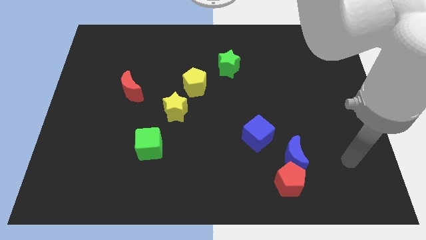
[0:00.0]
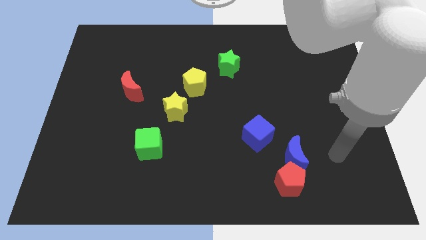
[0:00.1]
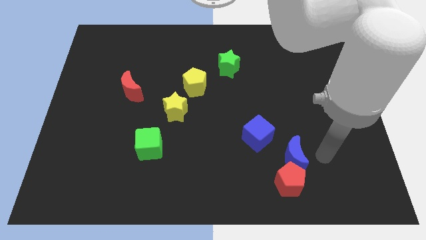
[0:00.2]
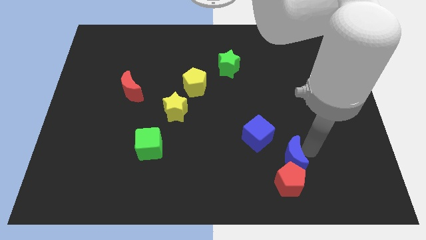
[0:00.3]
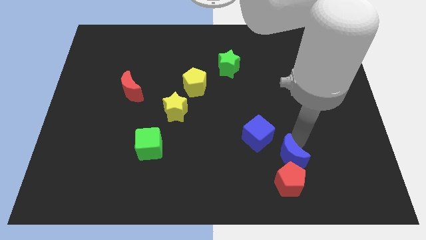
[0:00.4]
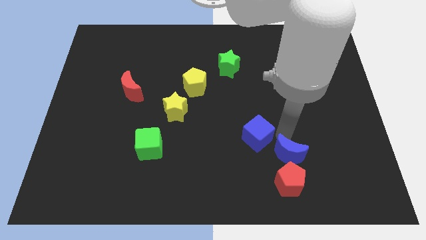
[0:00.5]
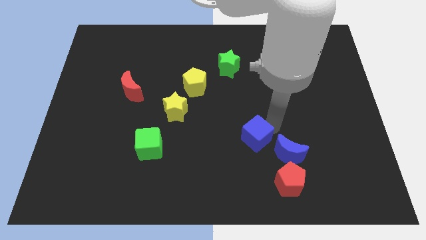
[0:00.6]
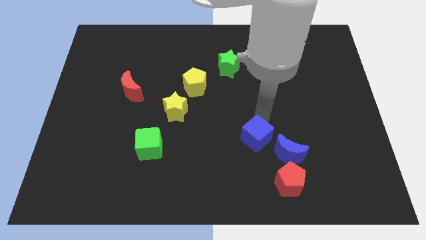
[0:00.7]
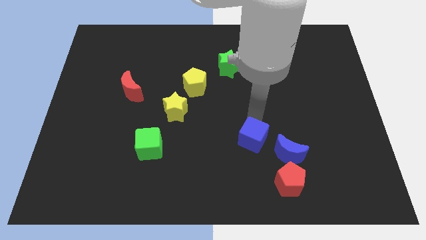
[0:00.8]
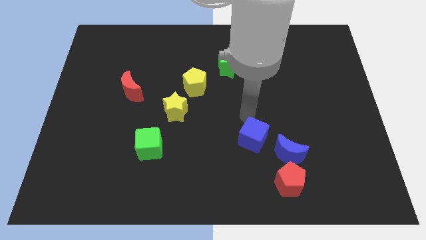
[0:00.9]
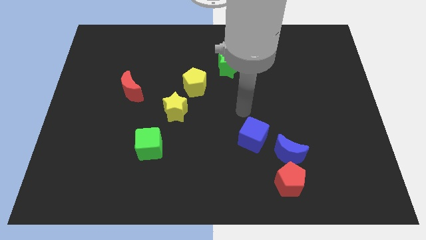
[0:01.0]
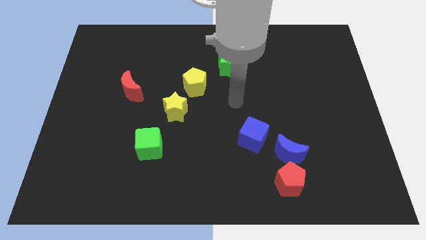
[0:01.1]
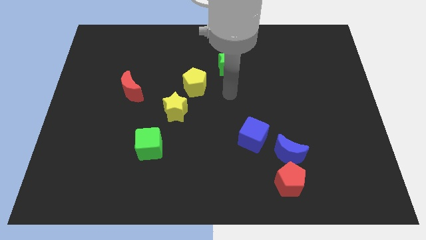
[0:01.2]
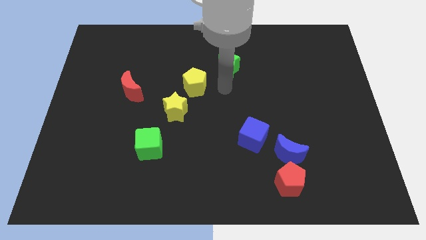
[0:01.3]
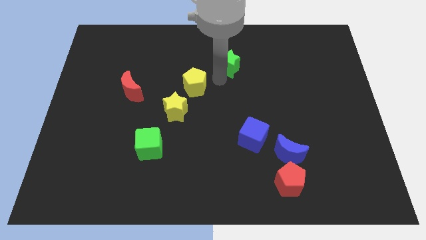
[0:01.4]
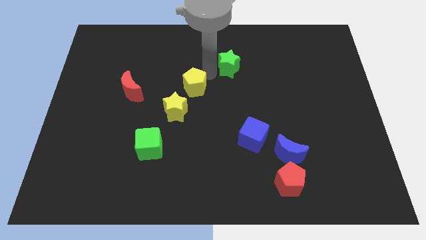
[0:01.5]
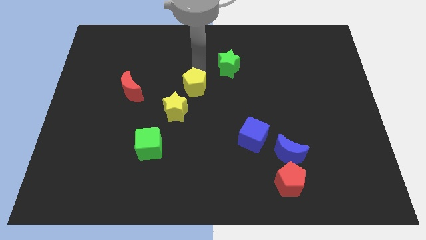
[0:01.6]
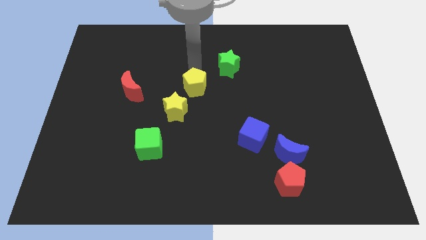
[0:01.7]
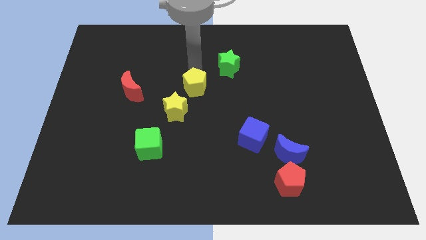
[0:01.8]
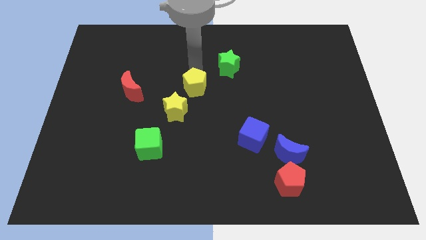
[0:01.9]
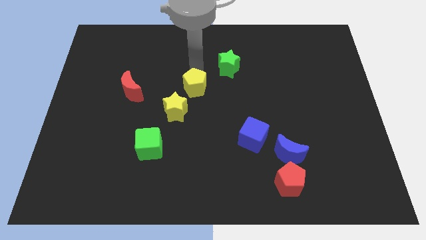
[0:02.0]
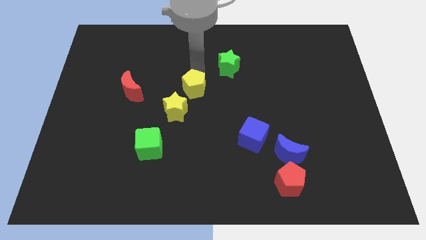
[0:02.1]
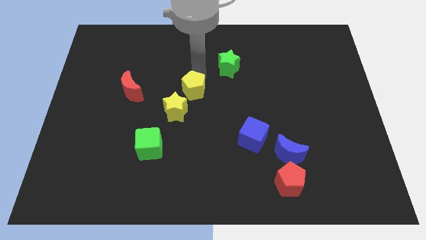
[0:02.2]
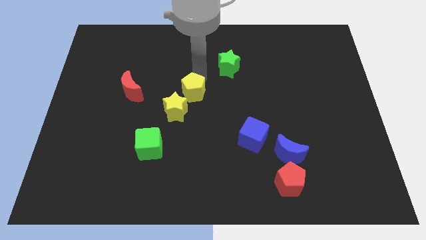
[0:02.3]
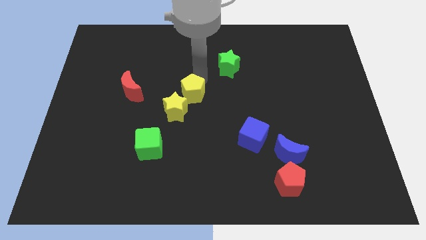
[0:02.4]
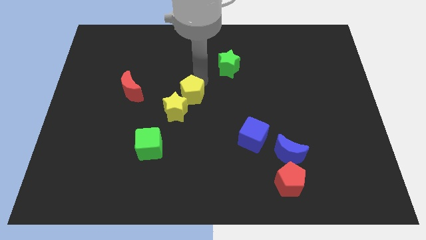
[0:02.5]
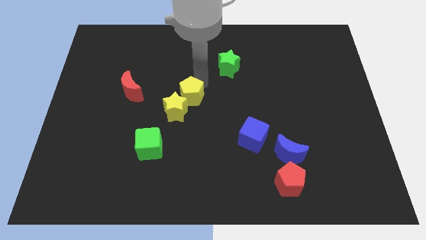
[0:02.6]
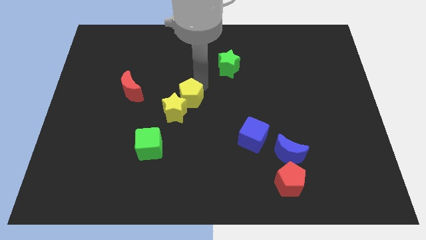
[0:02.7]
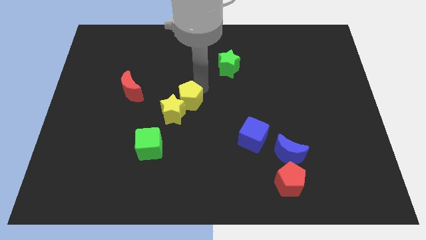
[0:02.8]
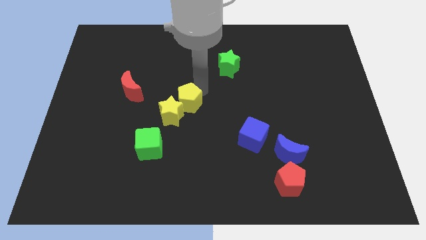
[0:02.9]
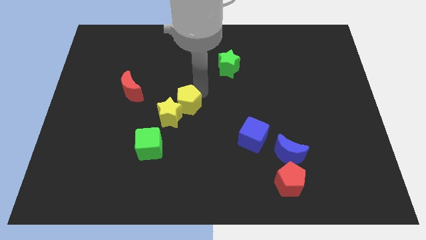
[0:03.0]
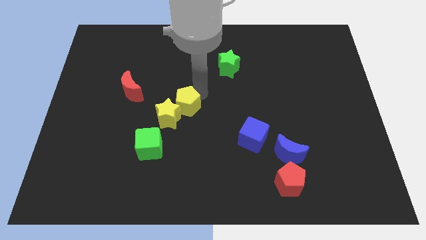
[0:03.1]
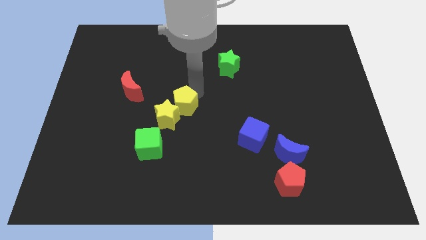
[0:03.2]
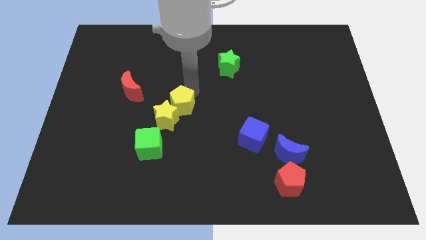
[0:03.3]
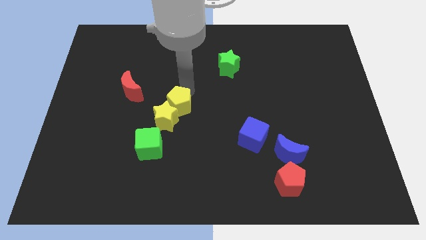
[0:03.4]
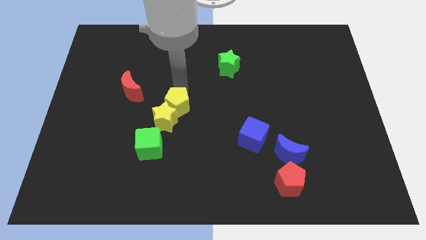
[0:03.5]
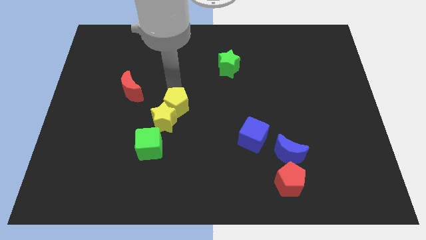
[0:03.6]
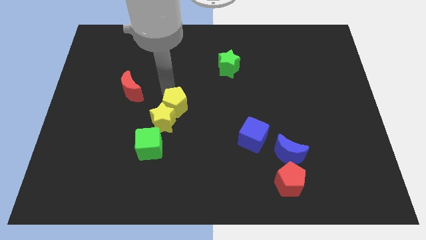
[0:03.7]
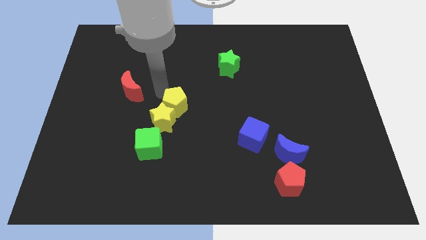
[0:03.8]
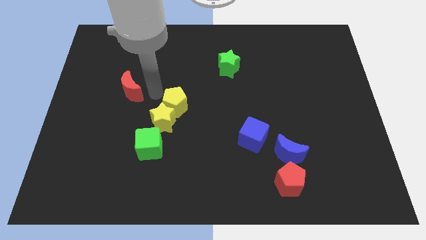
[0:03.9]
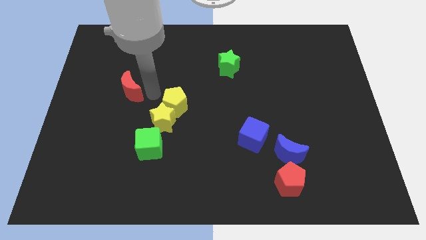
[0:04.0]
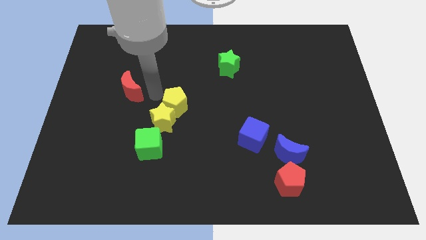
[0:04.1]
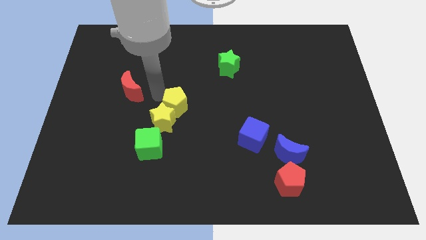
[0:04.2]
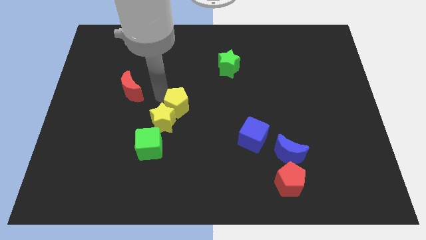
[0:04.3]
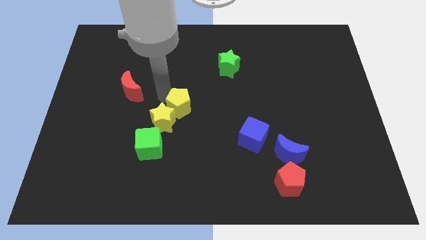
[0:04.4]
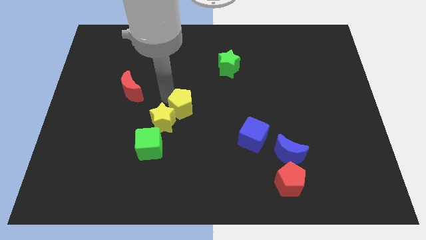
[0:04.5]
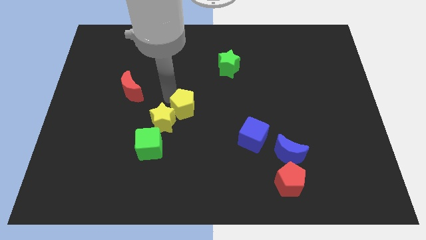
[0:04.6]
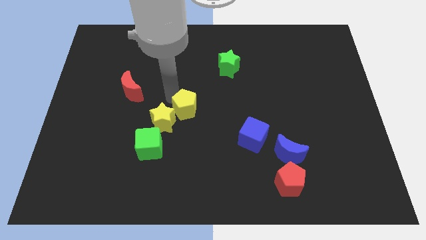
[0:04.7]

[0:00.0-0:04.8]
push the yellow pentagon a little downwards

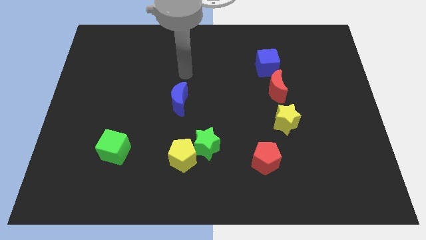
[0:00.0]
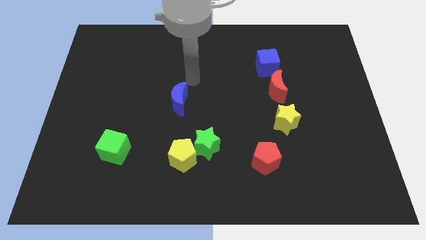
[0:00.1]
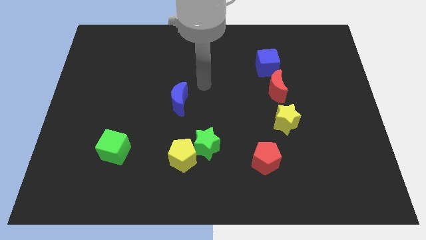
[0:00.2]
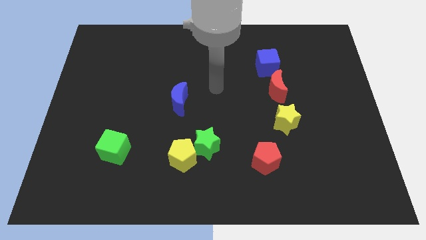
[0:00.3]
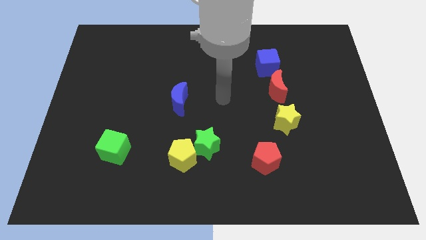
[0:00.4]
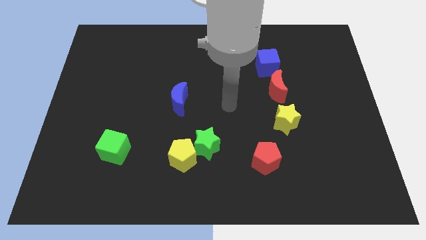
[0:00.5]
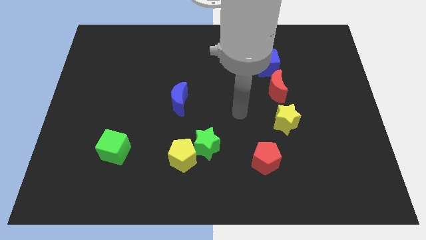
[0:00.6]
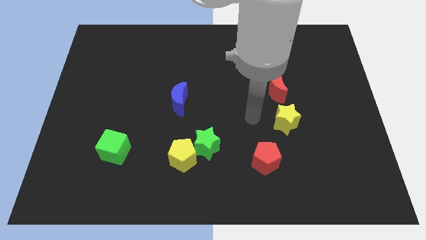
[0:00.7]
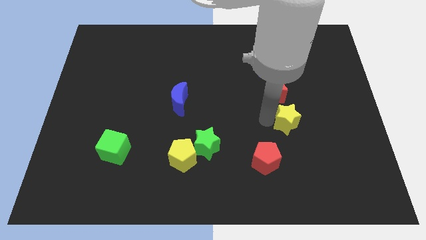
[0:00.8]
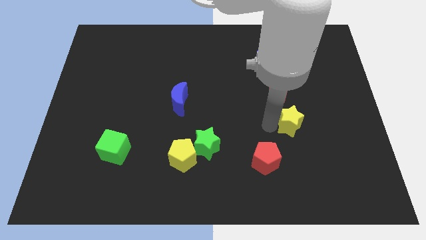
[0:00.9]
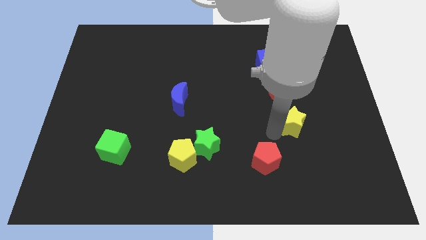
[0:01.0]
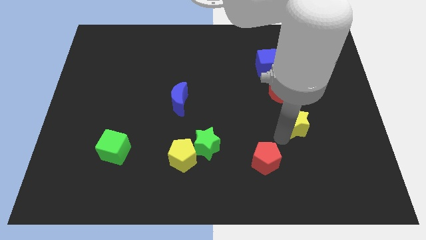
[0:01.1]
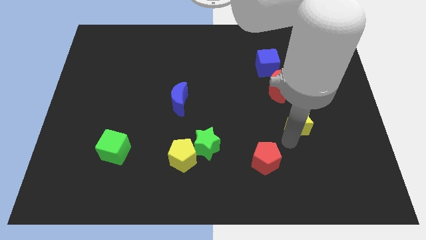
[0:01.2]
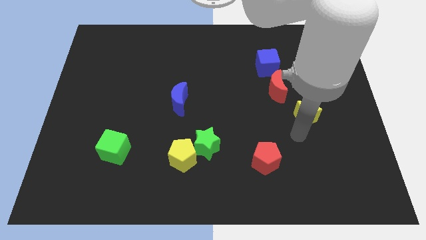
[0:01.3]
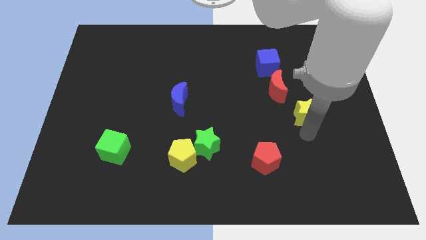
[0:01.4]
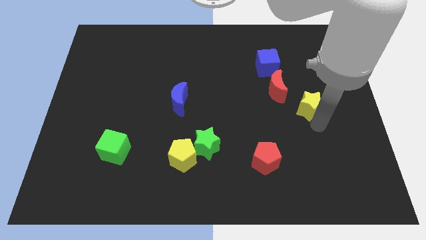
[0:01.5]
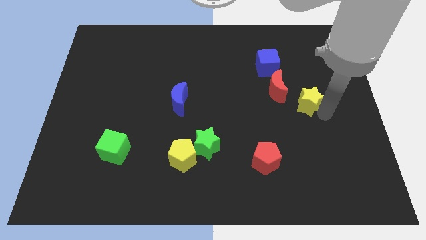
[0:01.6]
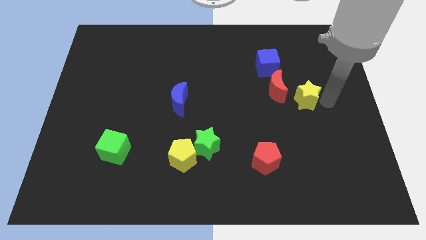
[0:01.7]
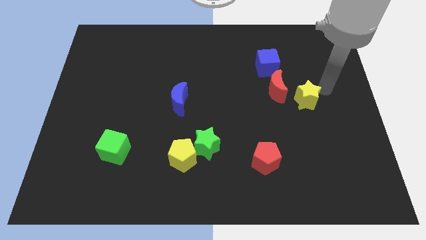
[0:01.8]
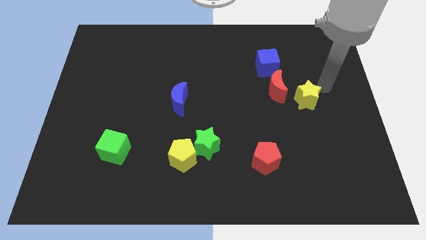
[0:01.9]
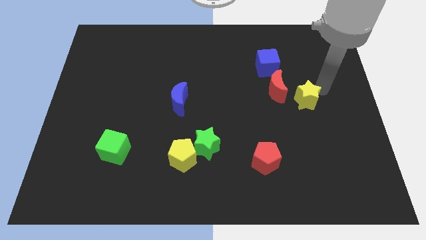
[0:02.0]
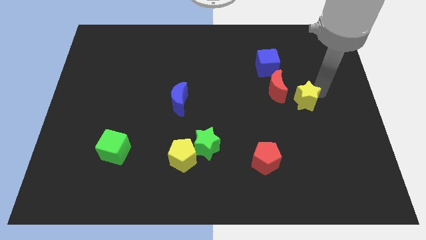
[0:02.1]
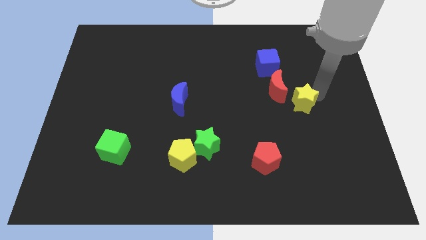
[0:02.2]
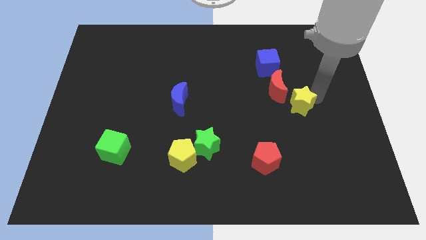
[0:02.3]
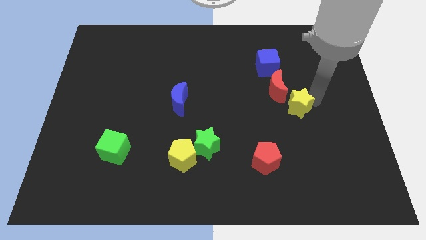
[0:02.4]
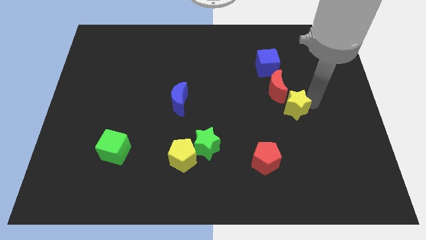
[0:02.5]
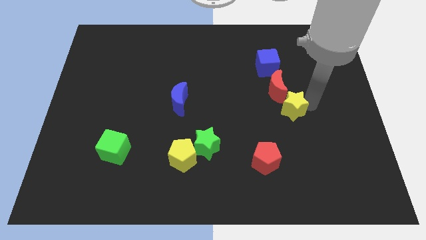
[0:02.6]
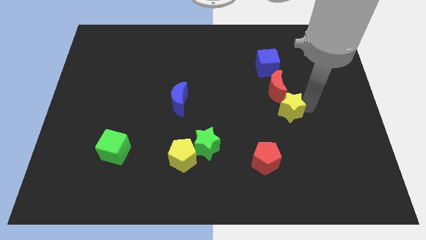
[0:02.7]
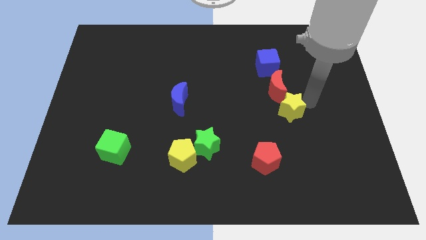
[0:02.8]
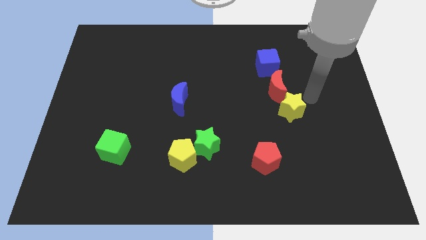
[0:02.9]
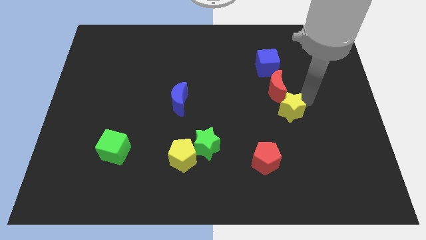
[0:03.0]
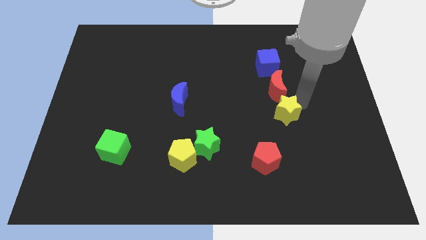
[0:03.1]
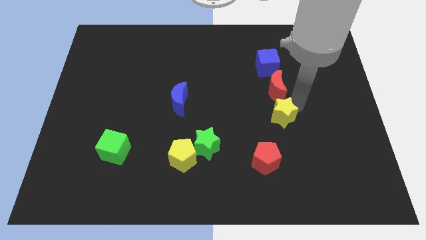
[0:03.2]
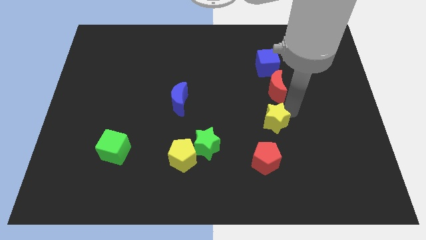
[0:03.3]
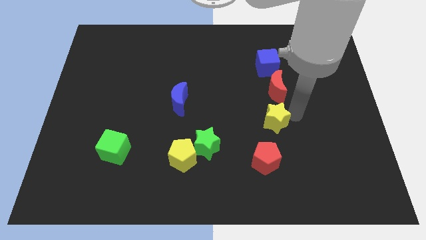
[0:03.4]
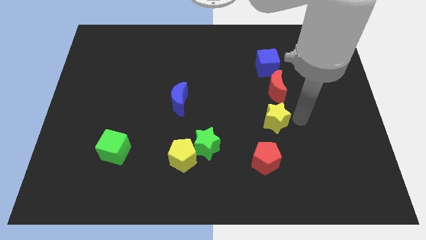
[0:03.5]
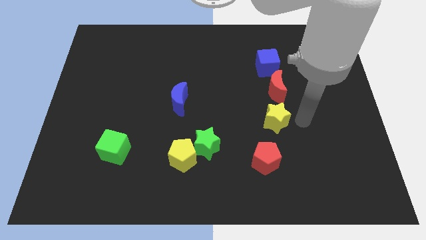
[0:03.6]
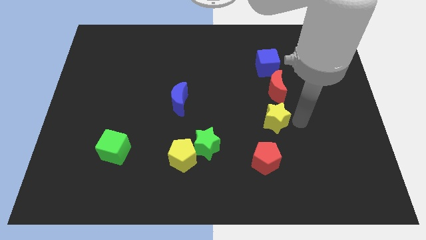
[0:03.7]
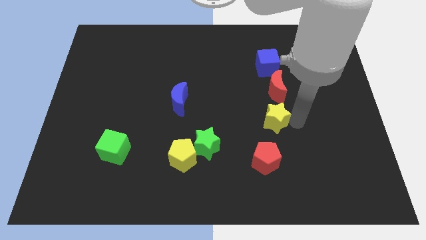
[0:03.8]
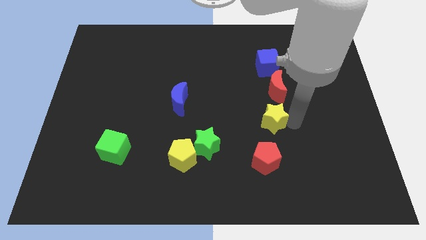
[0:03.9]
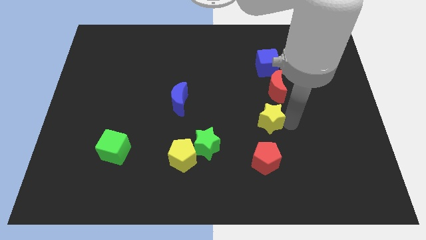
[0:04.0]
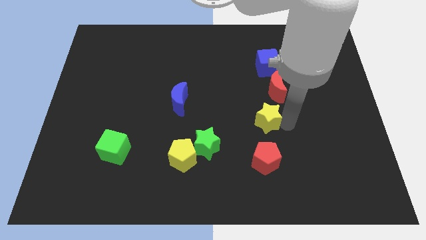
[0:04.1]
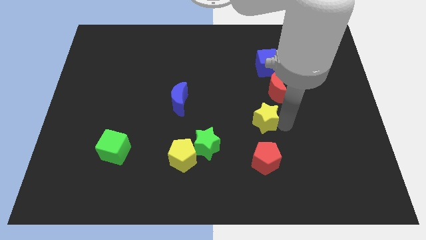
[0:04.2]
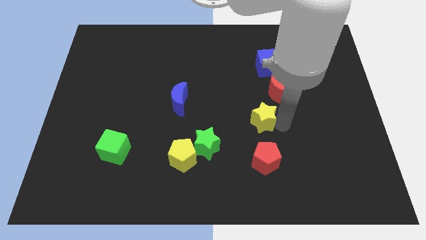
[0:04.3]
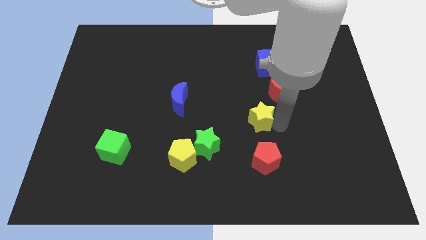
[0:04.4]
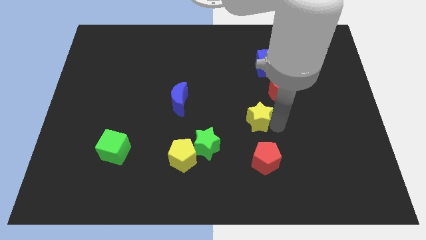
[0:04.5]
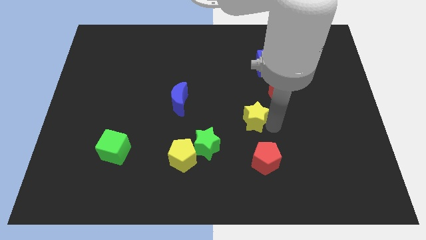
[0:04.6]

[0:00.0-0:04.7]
slightly push the yellow star left
